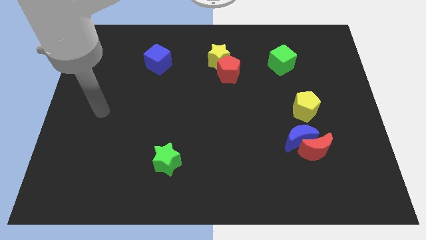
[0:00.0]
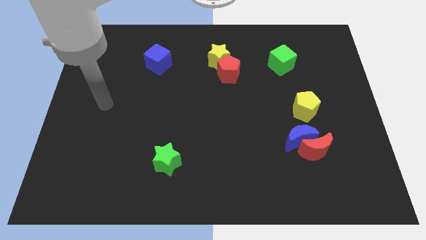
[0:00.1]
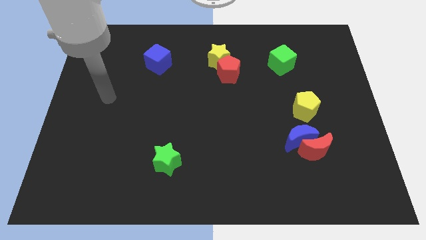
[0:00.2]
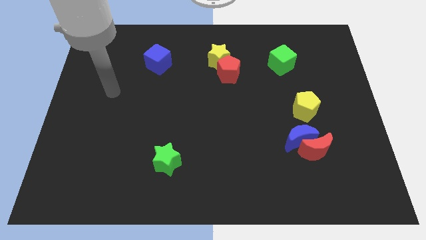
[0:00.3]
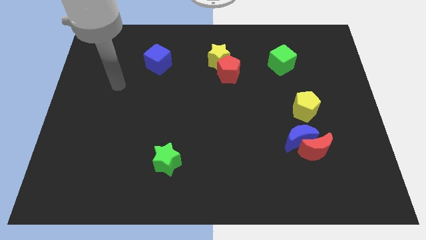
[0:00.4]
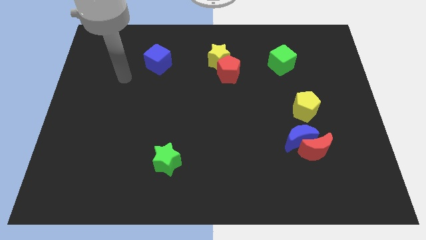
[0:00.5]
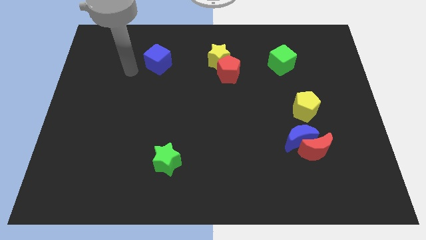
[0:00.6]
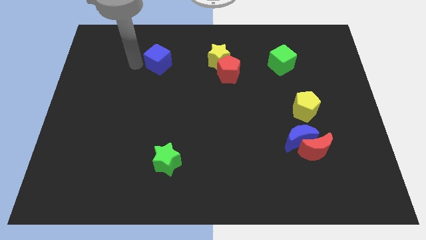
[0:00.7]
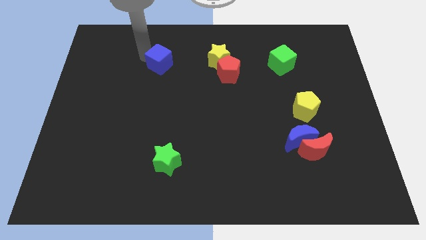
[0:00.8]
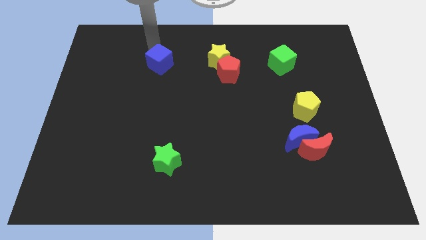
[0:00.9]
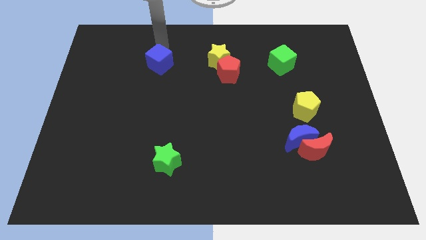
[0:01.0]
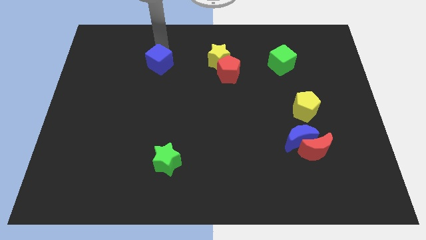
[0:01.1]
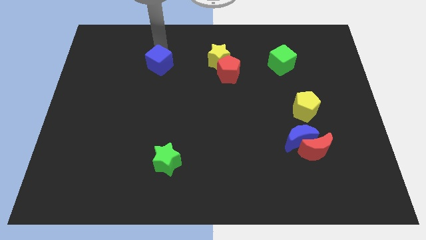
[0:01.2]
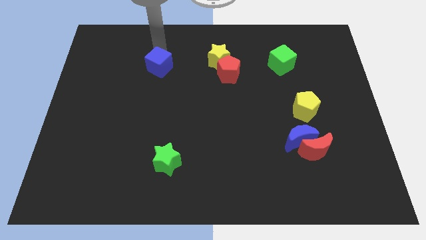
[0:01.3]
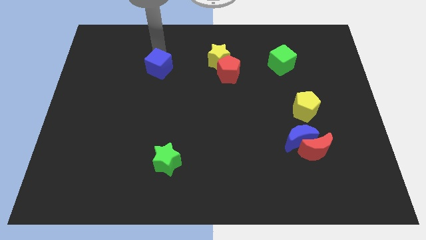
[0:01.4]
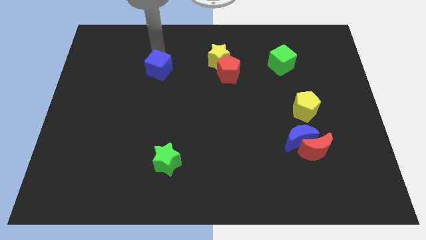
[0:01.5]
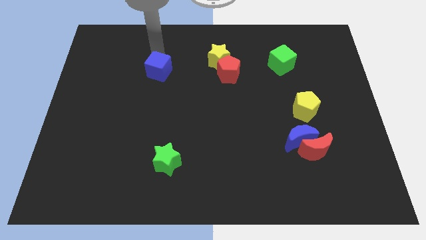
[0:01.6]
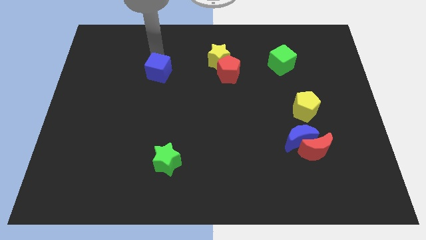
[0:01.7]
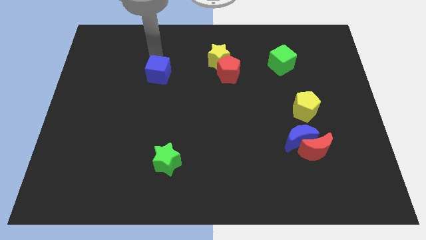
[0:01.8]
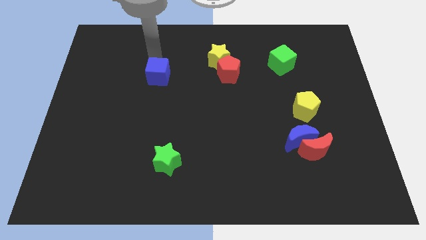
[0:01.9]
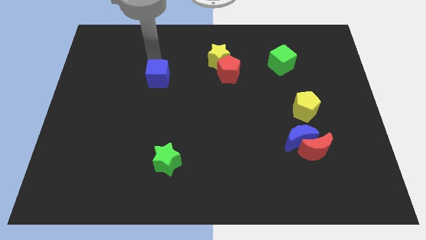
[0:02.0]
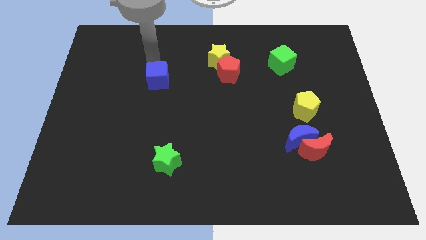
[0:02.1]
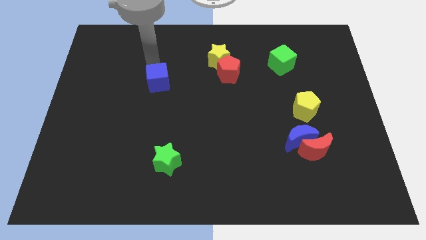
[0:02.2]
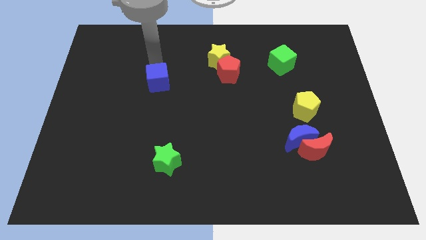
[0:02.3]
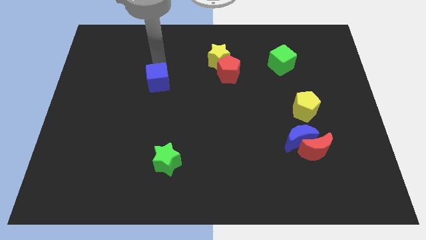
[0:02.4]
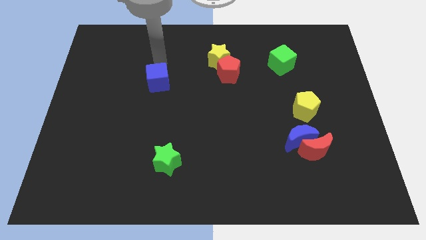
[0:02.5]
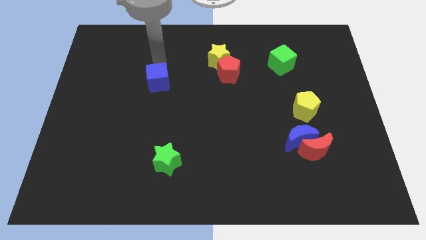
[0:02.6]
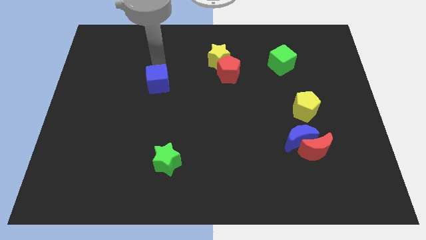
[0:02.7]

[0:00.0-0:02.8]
slide the blue cube down a little

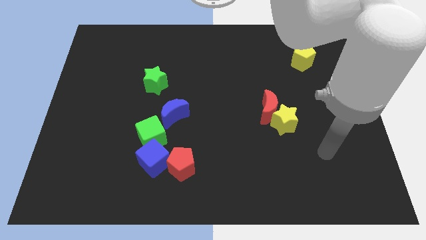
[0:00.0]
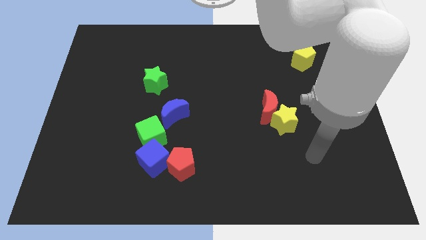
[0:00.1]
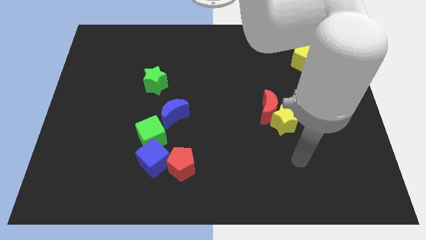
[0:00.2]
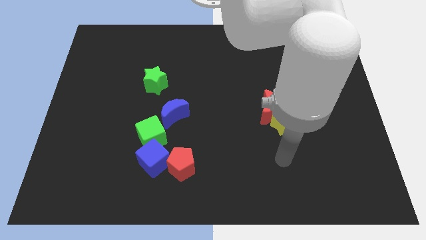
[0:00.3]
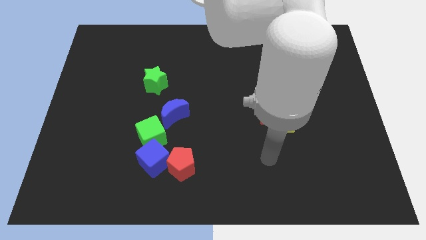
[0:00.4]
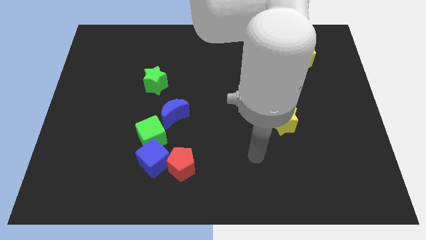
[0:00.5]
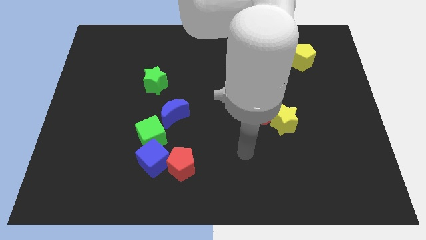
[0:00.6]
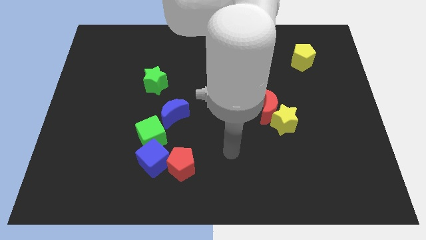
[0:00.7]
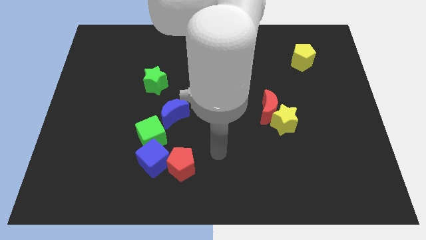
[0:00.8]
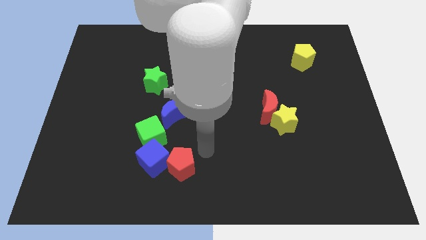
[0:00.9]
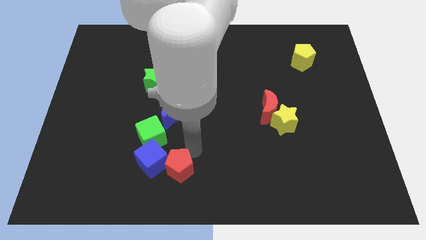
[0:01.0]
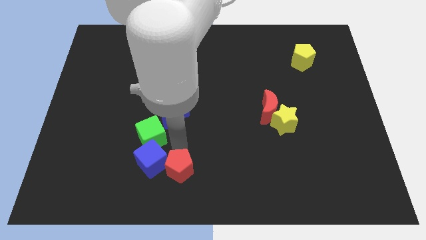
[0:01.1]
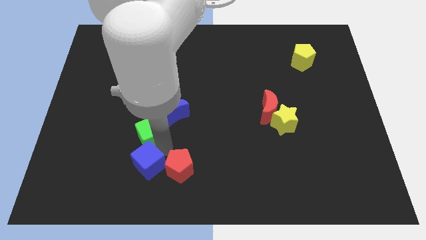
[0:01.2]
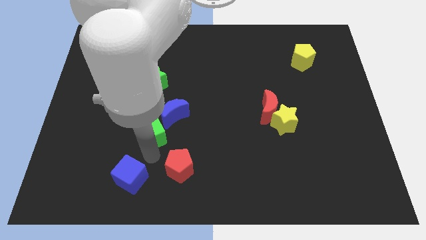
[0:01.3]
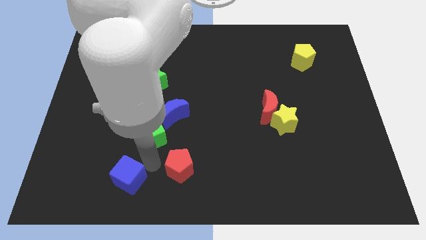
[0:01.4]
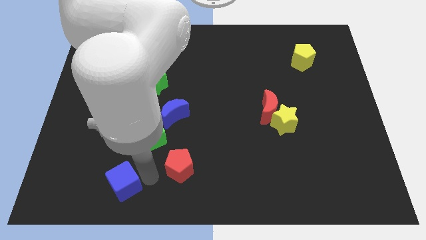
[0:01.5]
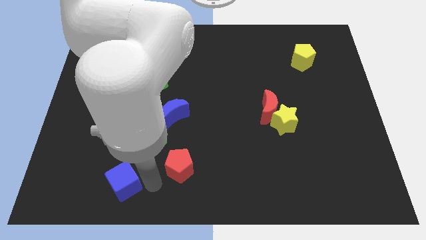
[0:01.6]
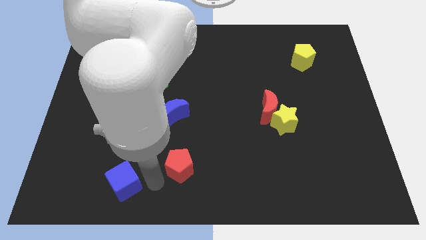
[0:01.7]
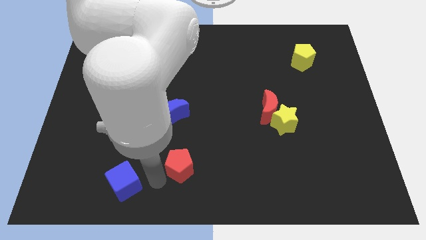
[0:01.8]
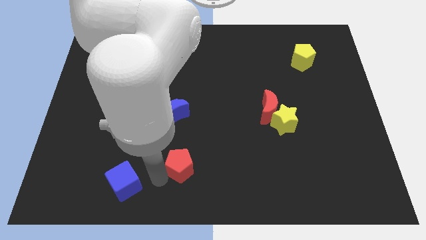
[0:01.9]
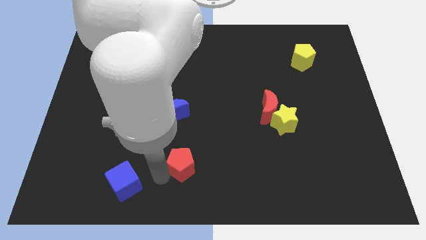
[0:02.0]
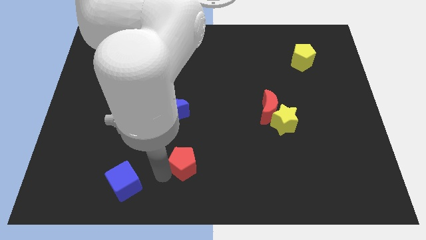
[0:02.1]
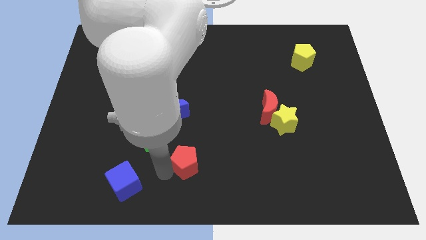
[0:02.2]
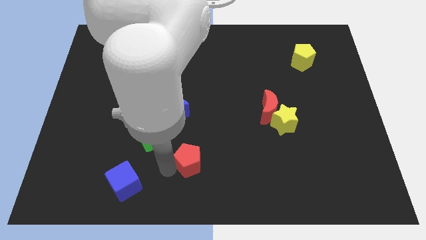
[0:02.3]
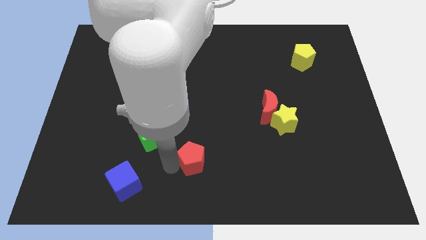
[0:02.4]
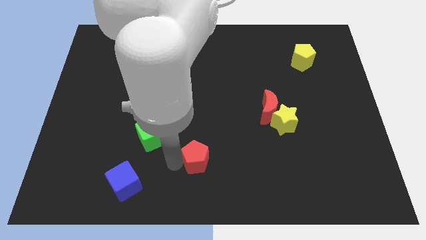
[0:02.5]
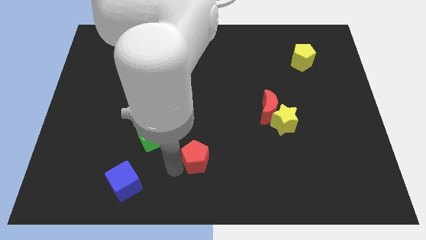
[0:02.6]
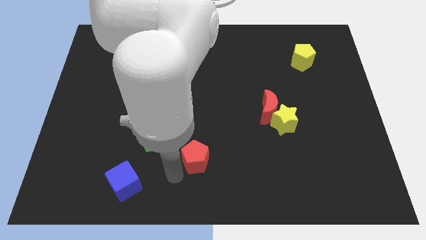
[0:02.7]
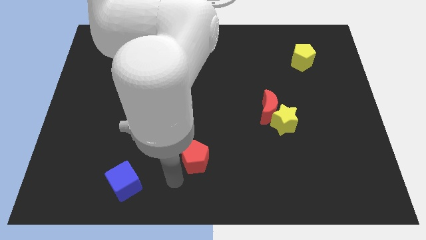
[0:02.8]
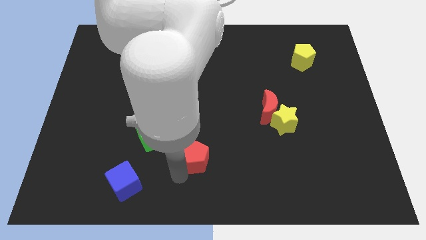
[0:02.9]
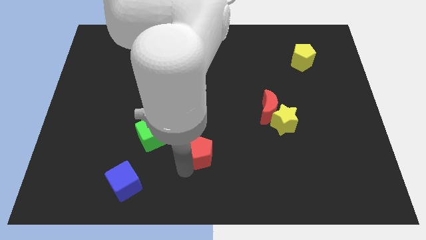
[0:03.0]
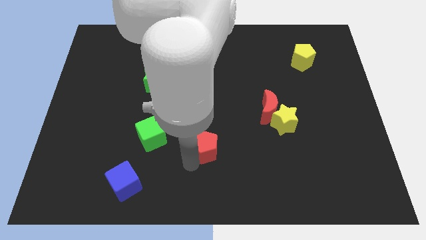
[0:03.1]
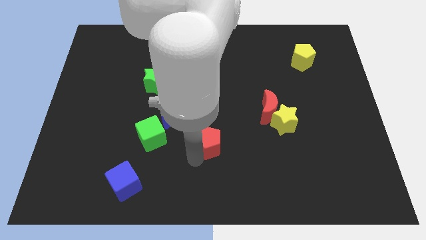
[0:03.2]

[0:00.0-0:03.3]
slide the red pentagon up and then right a little bit

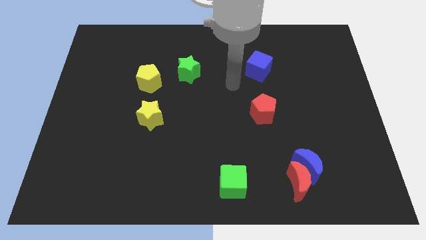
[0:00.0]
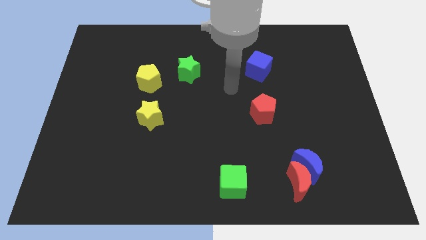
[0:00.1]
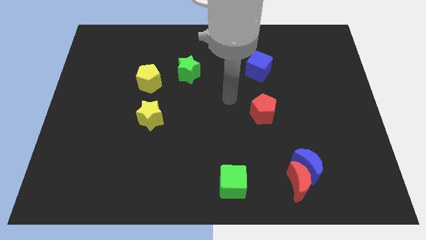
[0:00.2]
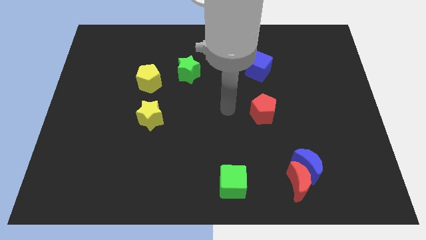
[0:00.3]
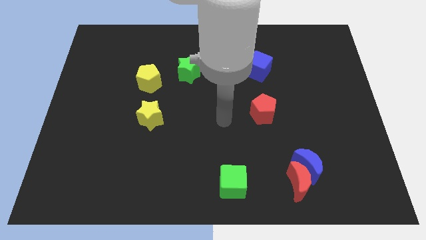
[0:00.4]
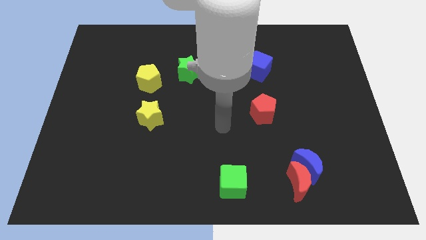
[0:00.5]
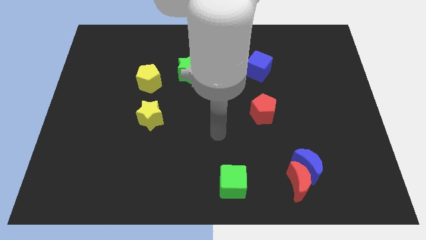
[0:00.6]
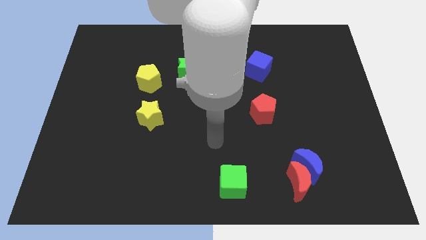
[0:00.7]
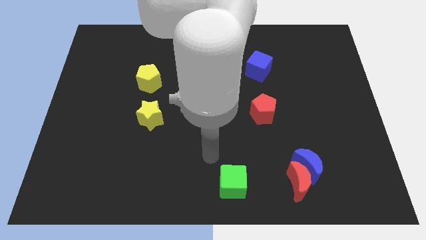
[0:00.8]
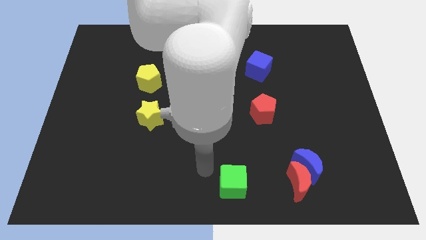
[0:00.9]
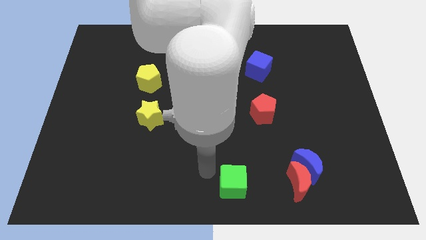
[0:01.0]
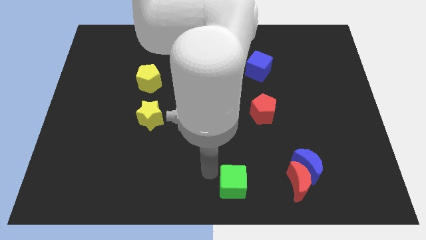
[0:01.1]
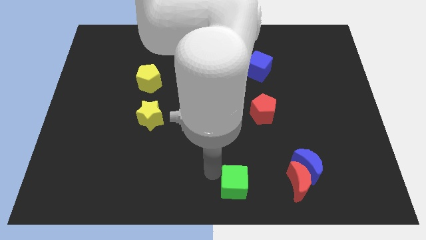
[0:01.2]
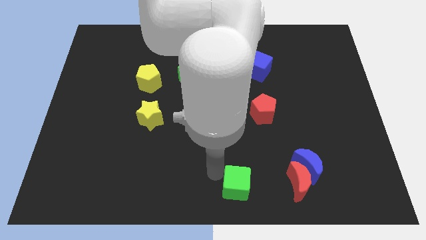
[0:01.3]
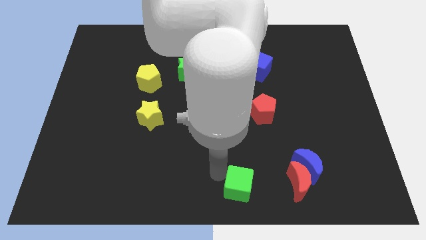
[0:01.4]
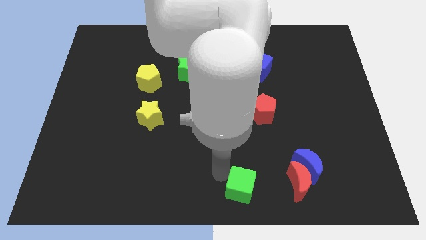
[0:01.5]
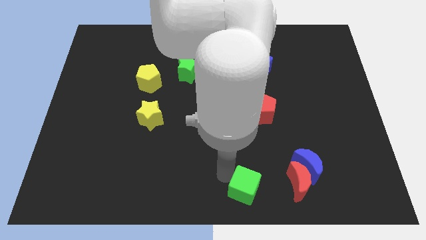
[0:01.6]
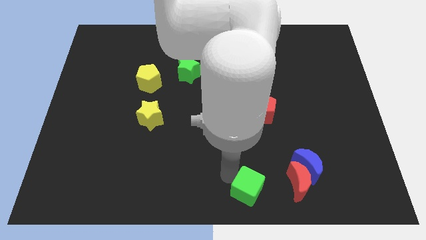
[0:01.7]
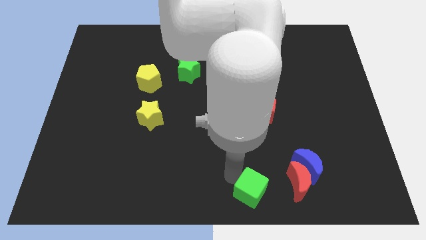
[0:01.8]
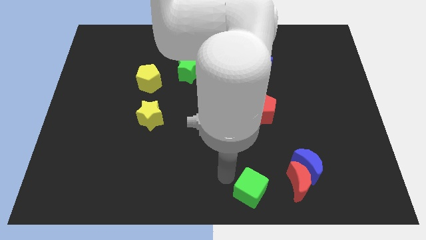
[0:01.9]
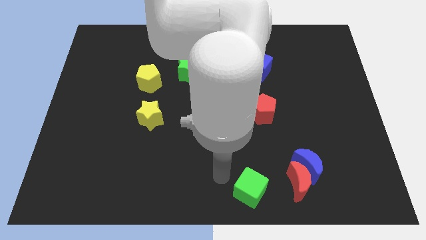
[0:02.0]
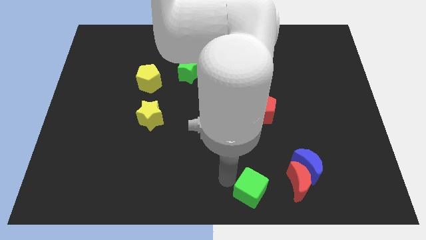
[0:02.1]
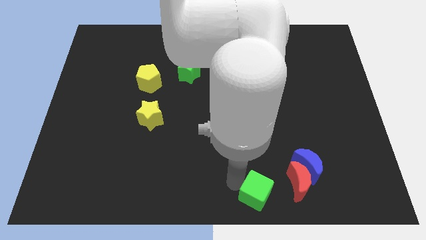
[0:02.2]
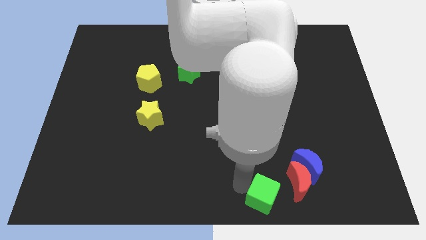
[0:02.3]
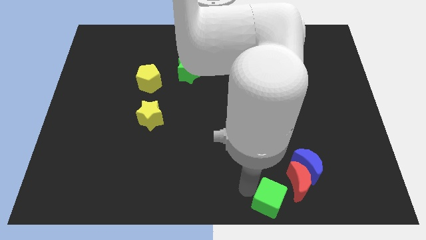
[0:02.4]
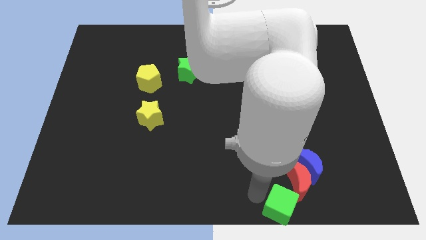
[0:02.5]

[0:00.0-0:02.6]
slightly slide the green cube to the right
